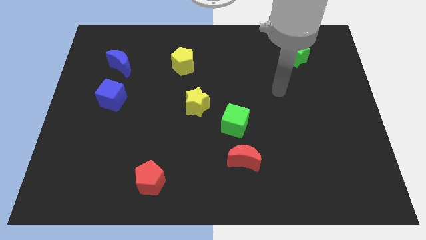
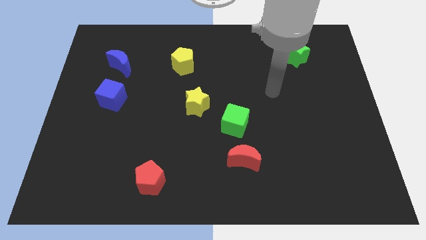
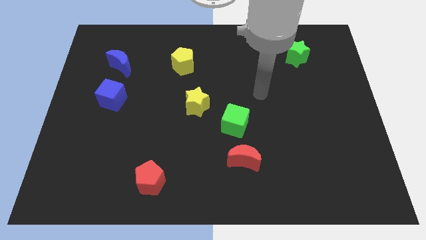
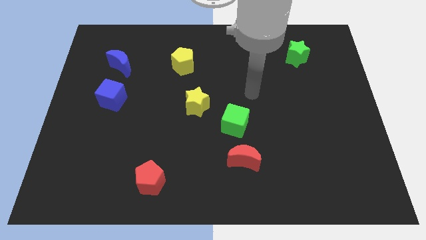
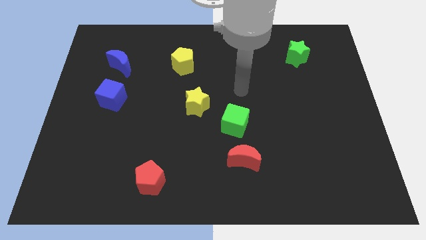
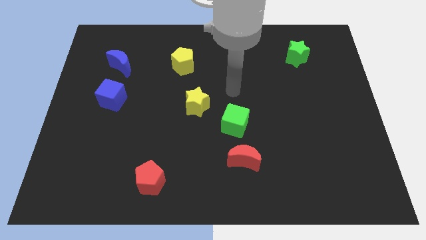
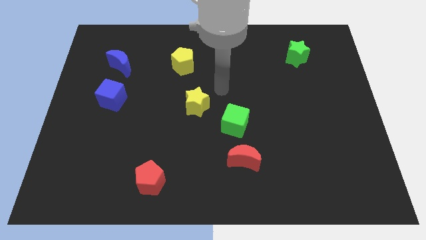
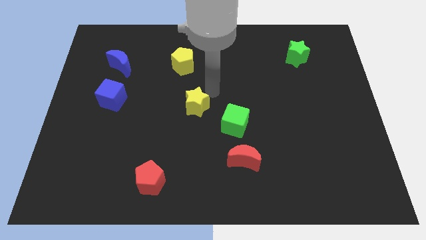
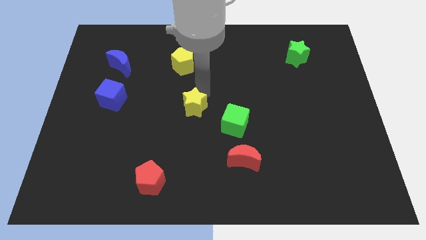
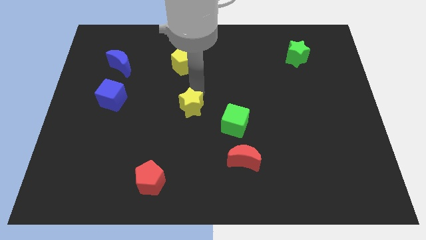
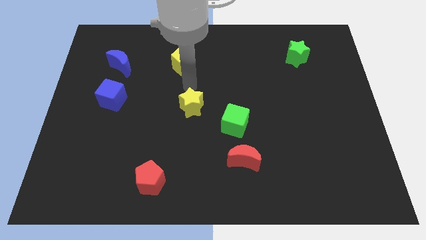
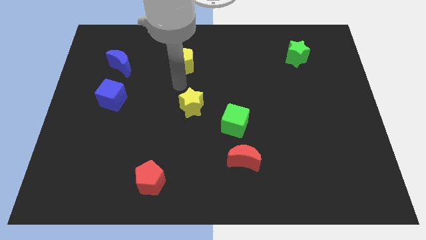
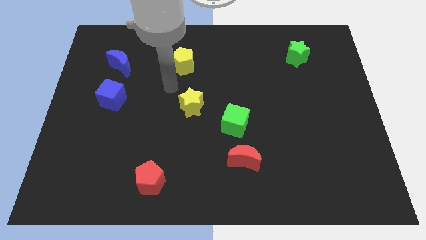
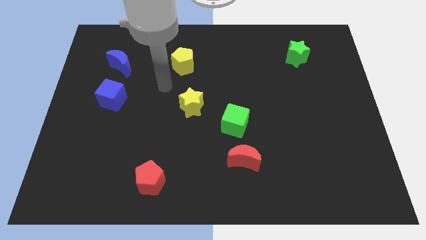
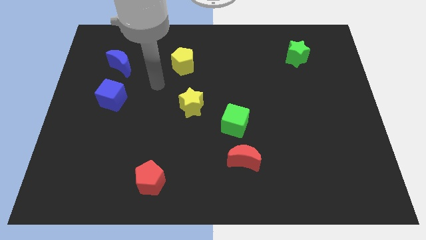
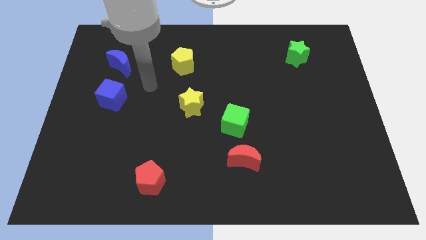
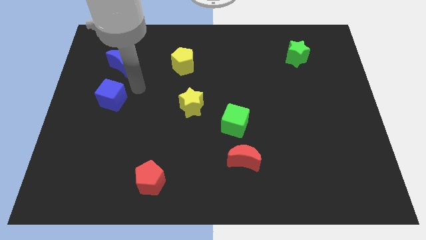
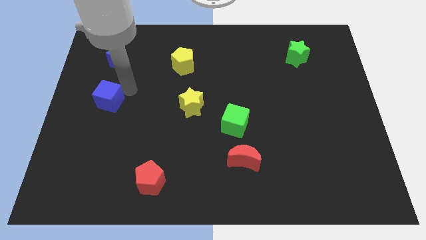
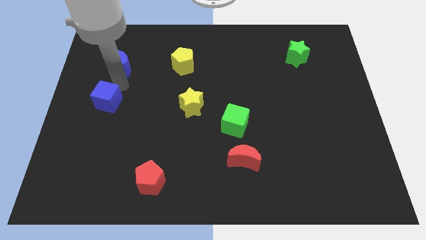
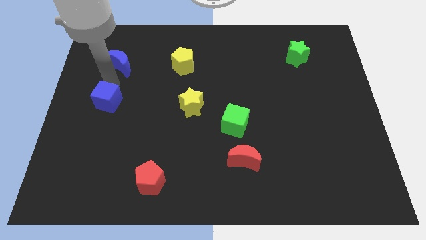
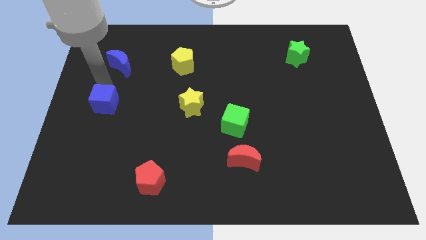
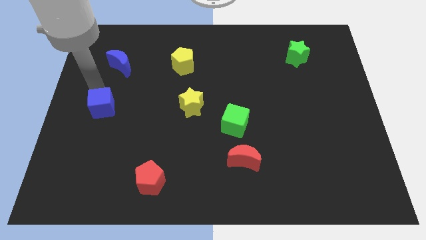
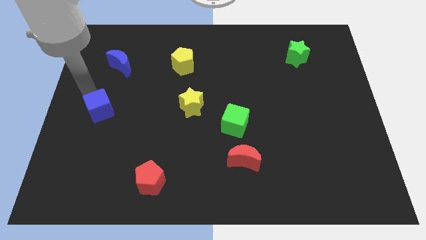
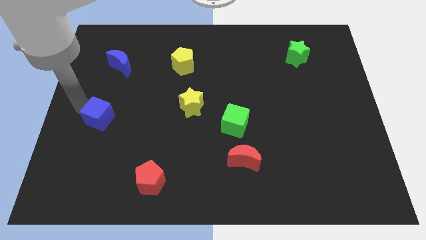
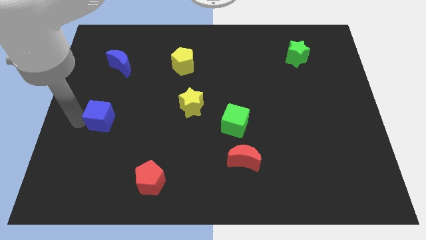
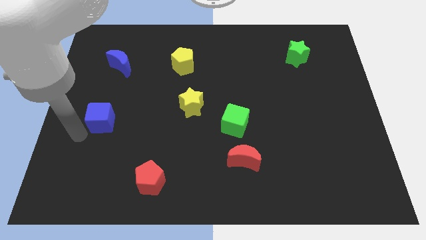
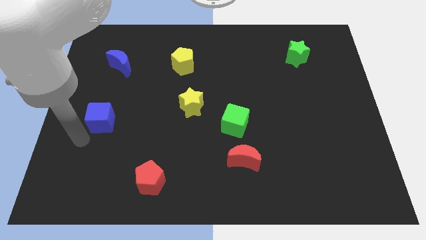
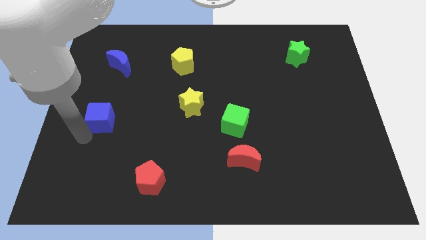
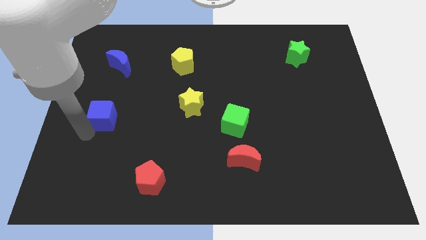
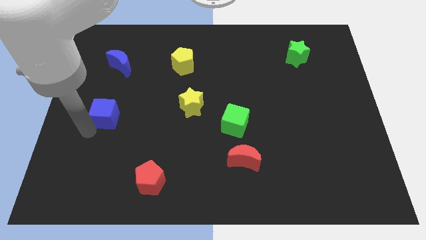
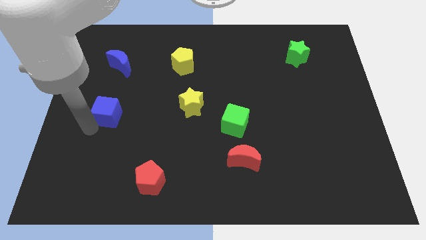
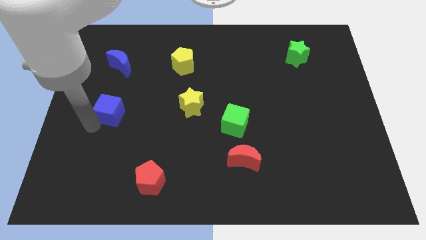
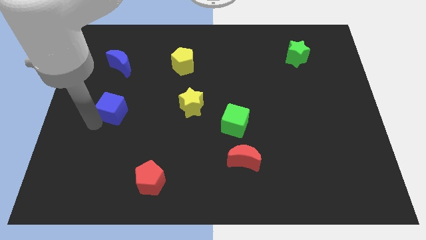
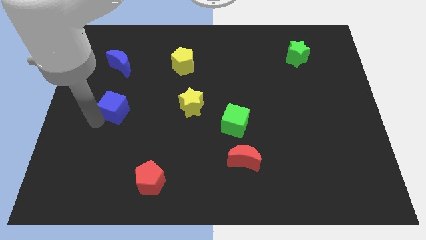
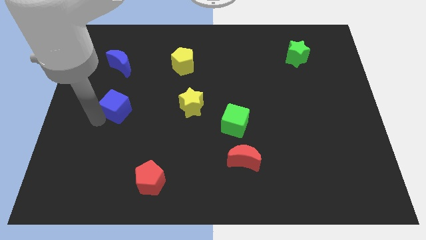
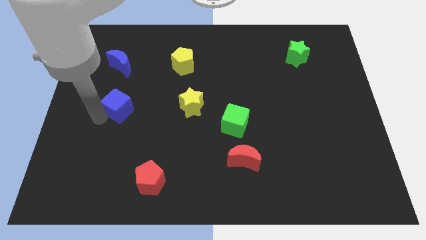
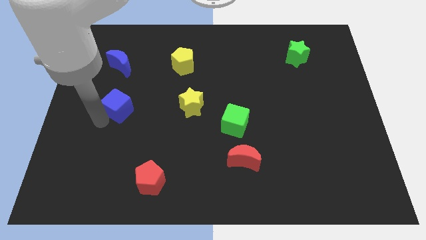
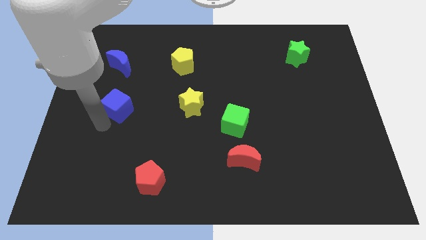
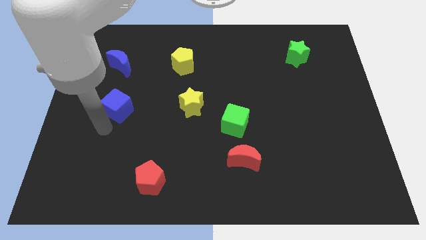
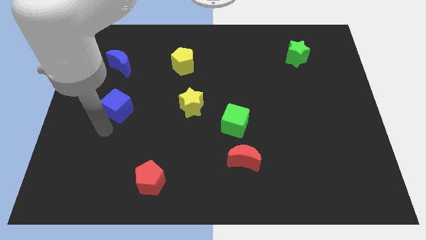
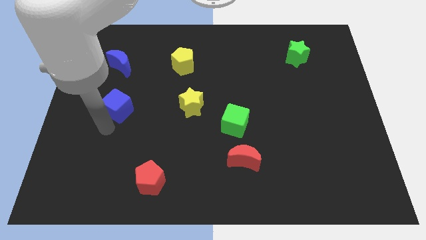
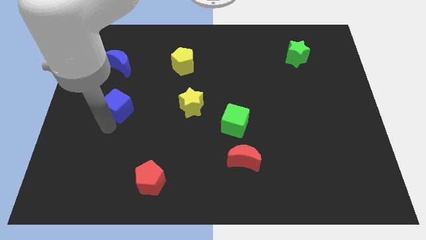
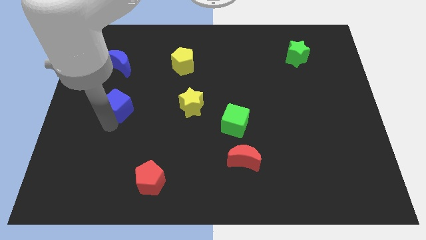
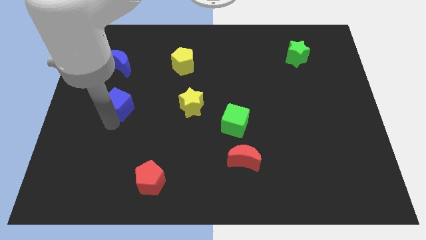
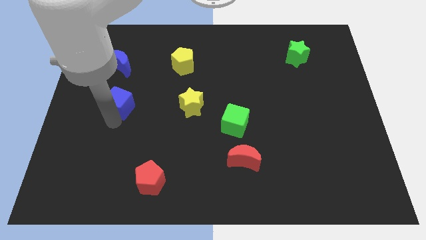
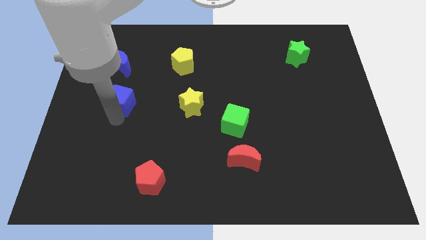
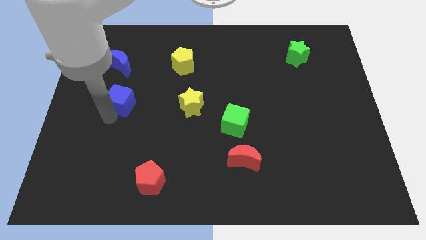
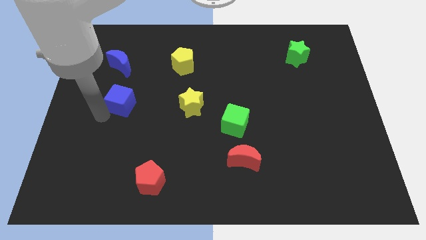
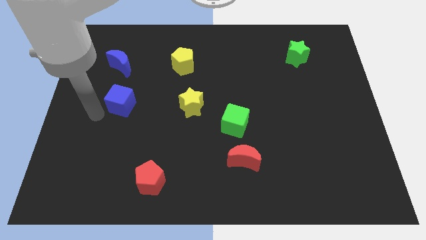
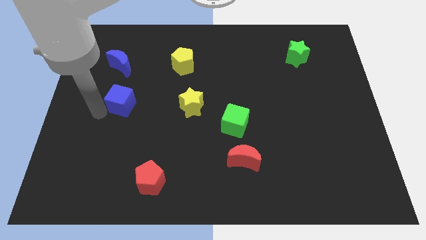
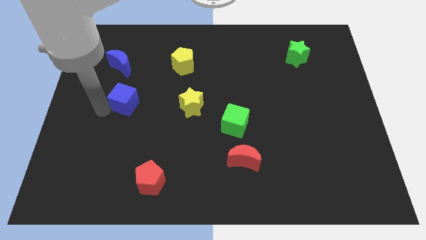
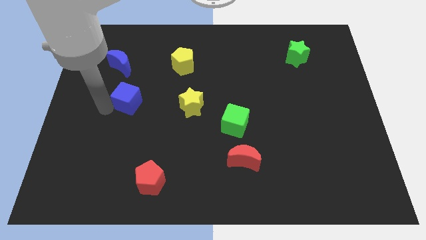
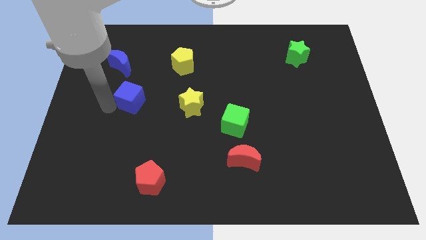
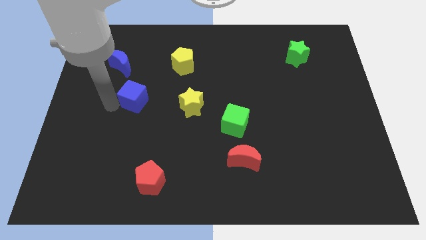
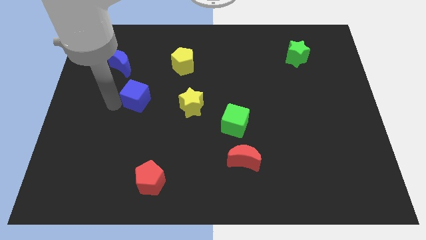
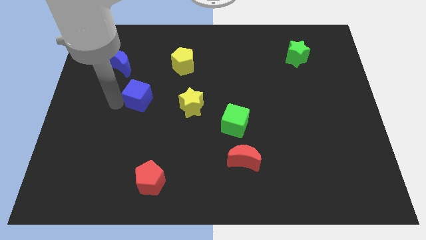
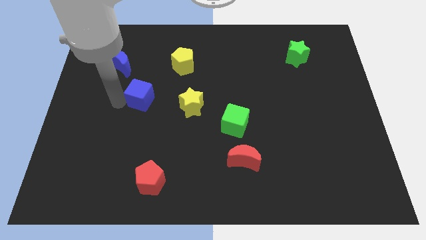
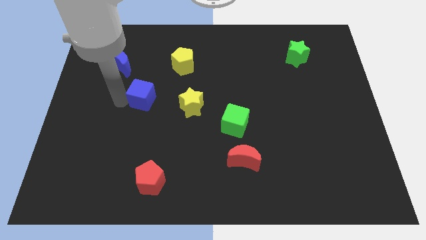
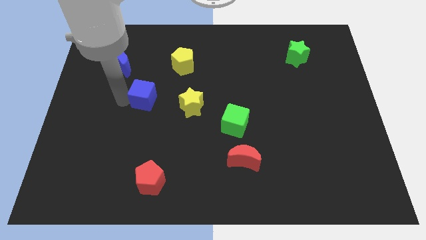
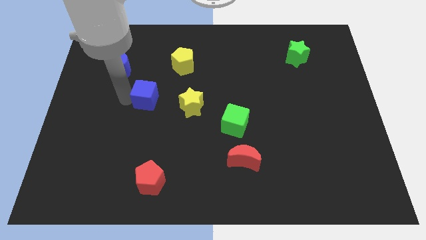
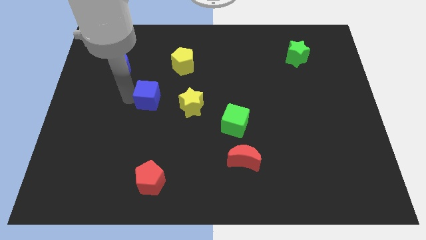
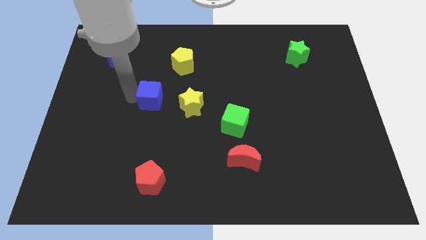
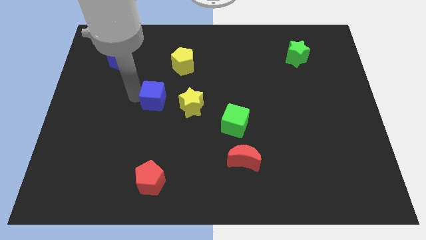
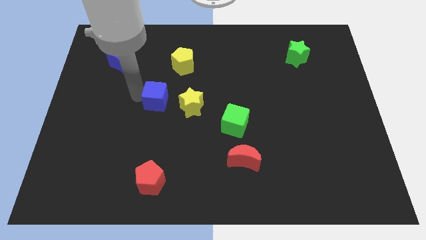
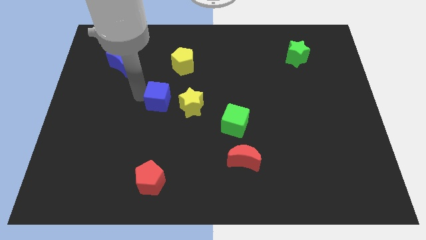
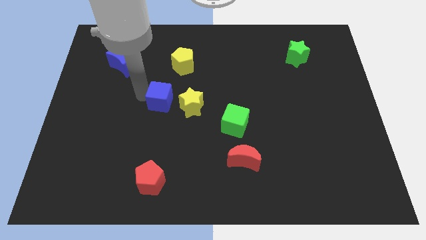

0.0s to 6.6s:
slide the blue cube to the middle of the board

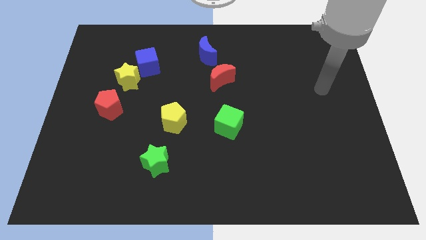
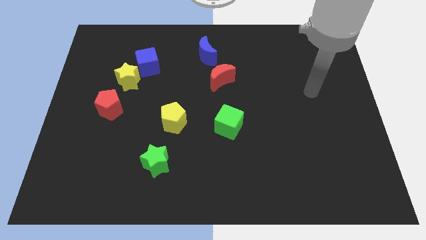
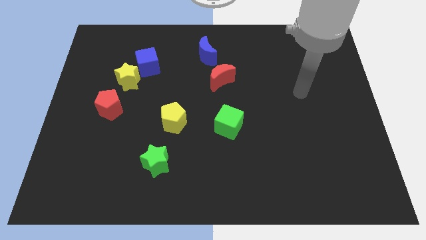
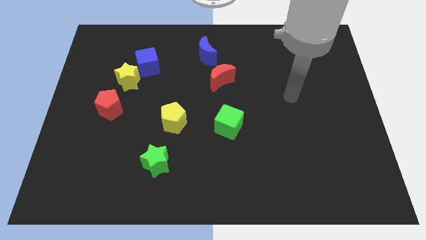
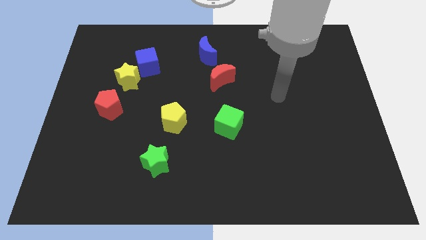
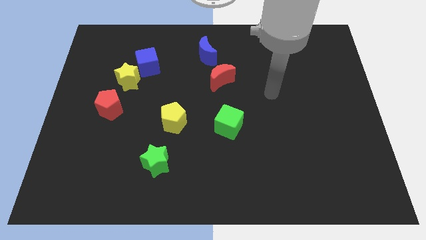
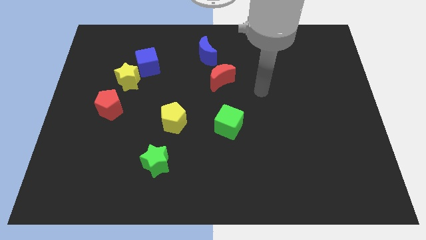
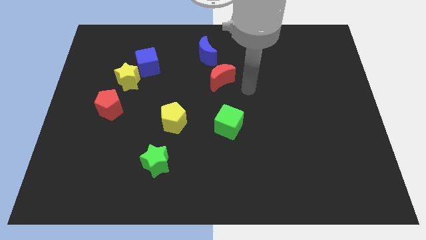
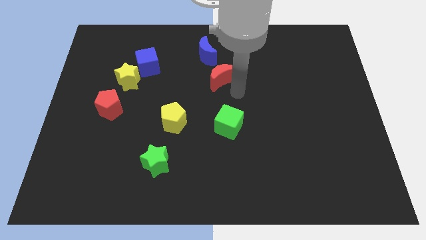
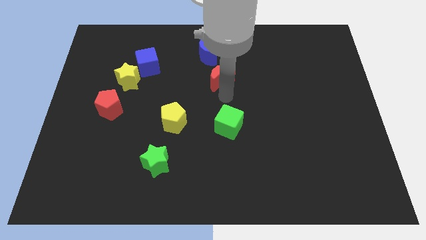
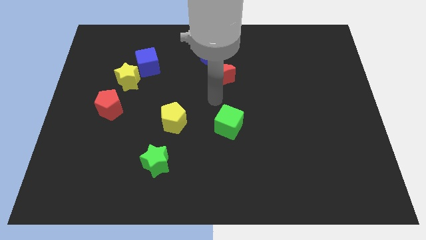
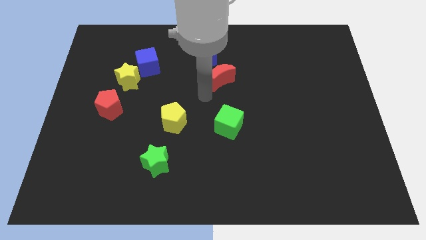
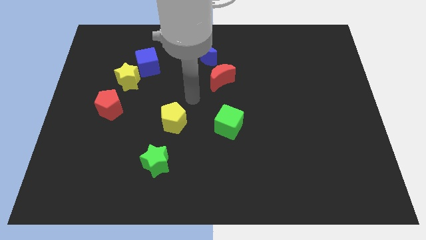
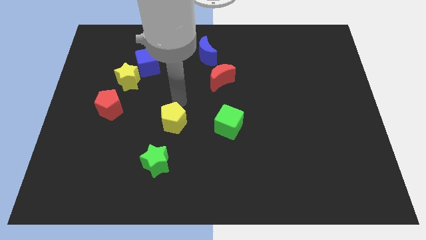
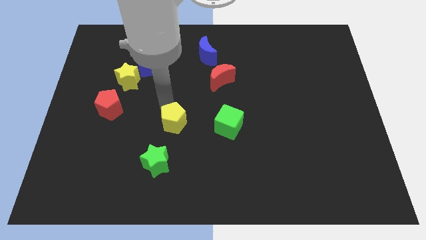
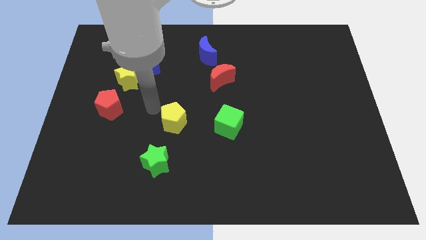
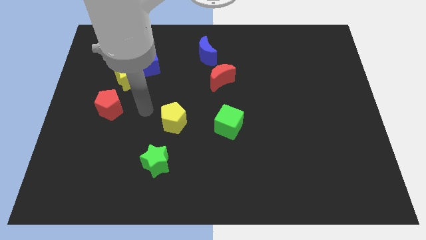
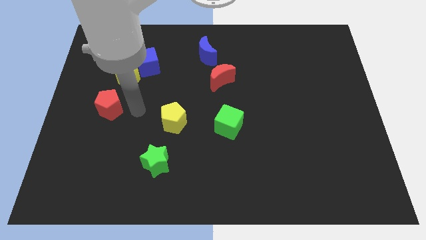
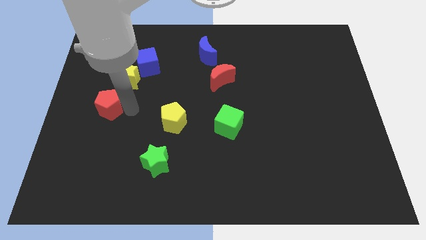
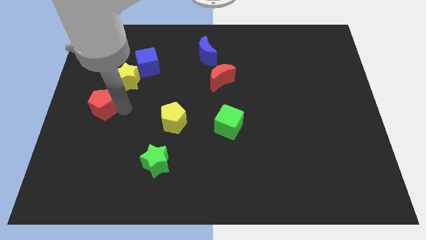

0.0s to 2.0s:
slide the red pentagon to the center left
